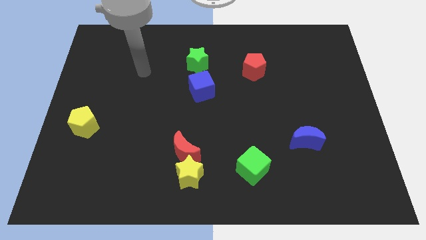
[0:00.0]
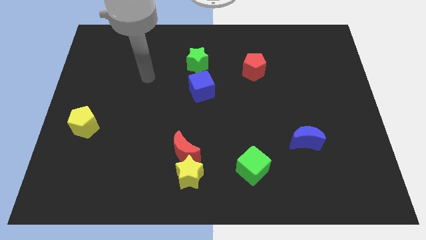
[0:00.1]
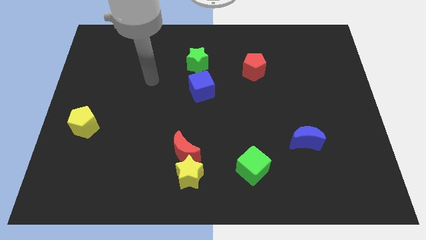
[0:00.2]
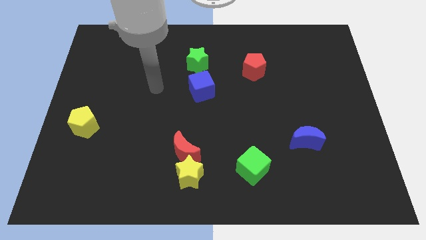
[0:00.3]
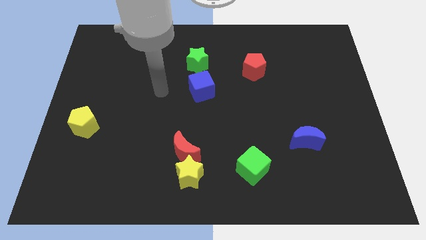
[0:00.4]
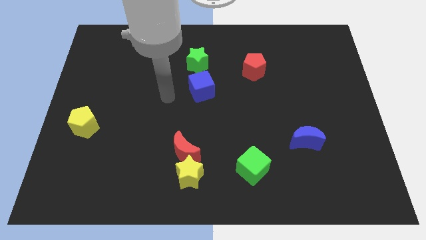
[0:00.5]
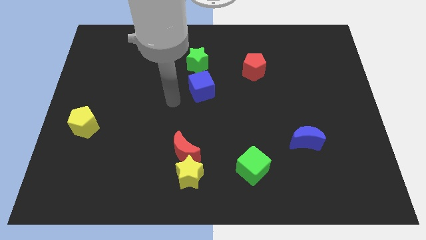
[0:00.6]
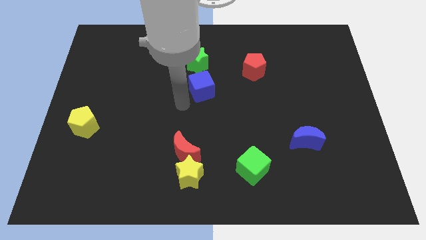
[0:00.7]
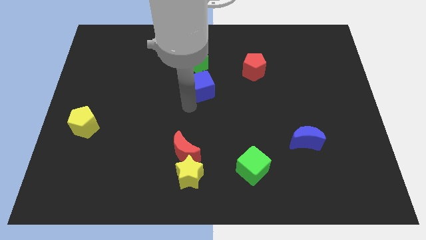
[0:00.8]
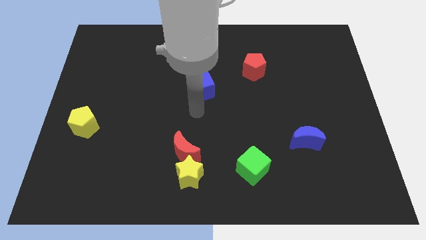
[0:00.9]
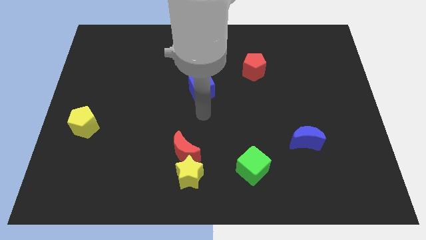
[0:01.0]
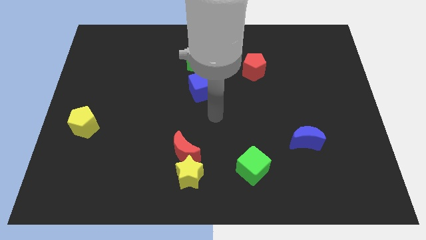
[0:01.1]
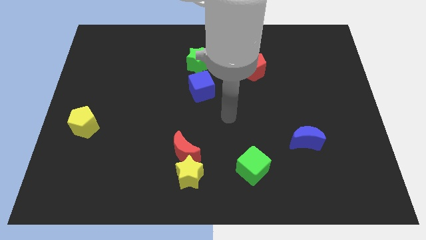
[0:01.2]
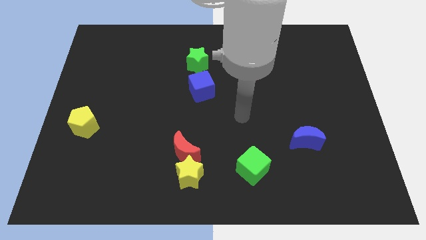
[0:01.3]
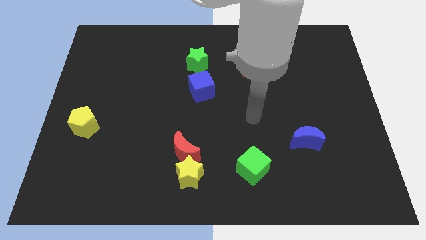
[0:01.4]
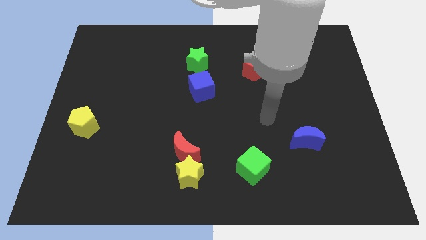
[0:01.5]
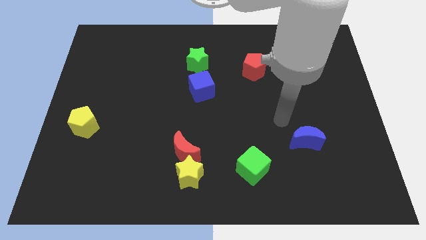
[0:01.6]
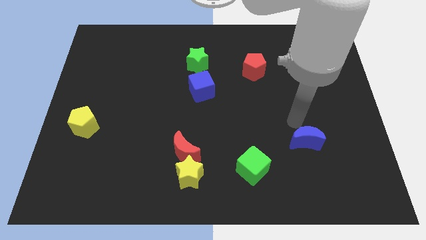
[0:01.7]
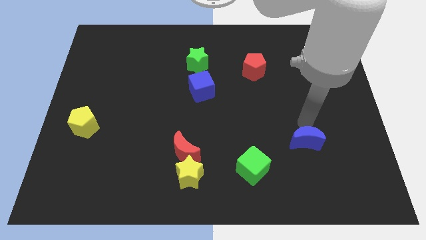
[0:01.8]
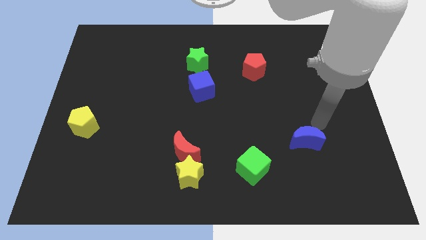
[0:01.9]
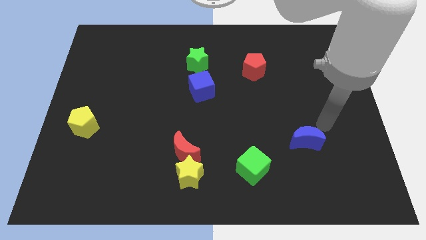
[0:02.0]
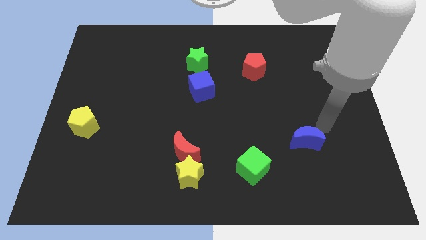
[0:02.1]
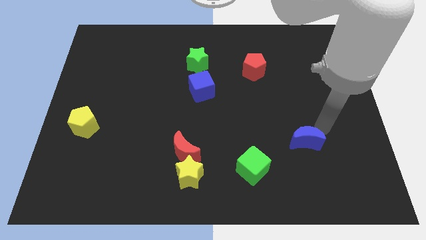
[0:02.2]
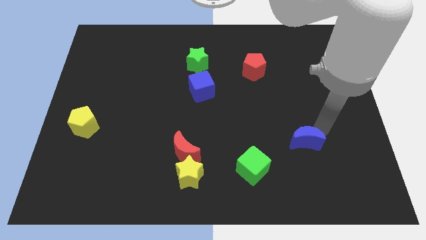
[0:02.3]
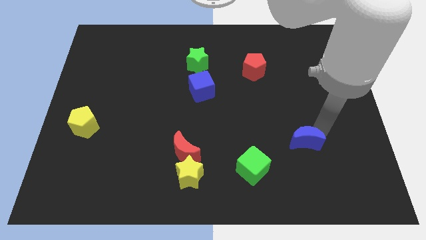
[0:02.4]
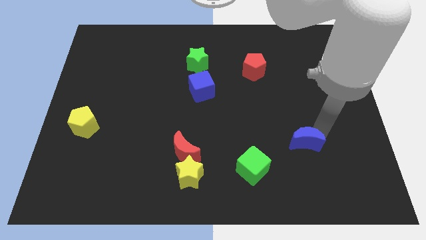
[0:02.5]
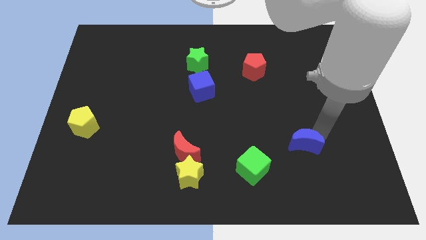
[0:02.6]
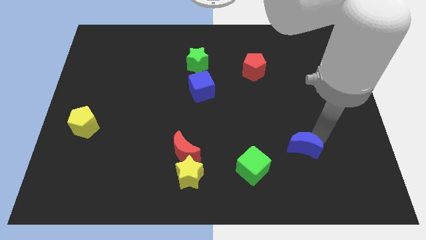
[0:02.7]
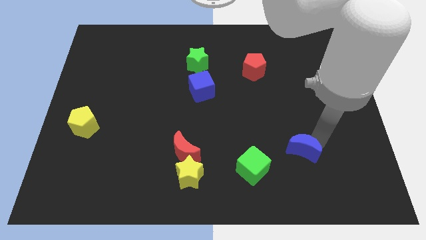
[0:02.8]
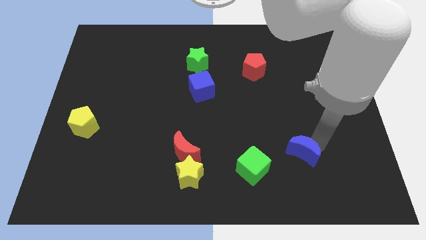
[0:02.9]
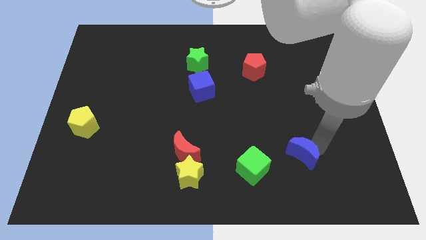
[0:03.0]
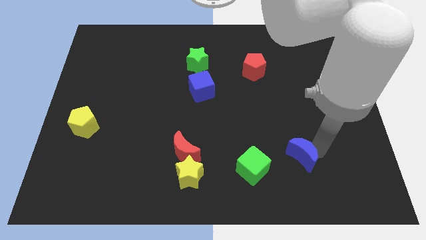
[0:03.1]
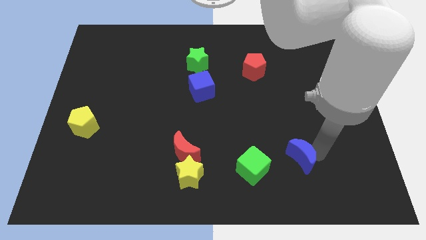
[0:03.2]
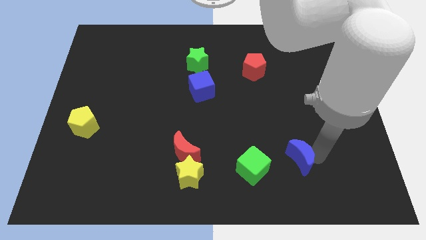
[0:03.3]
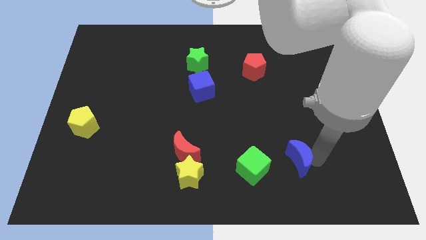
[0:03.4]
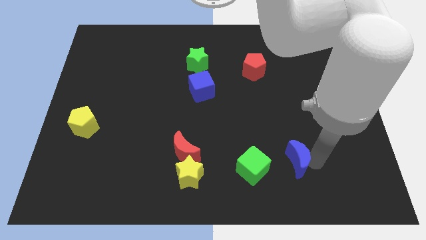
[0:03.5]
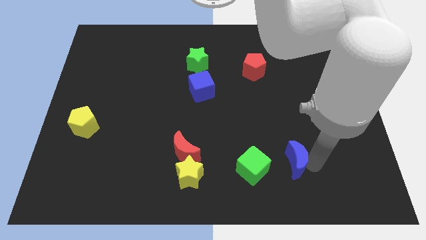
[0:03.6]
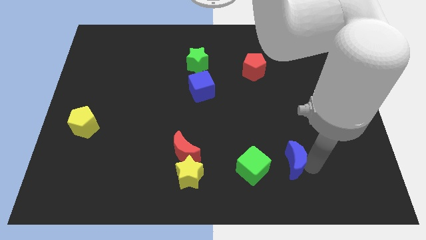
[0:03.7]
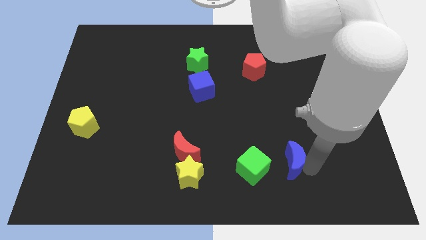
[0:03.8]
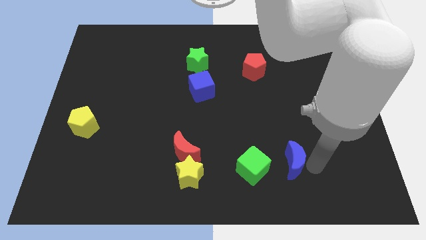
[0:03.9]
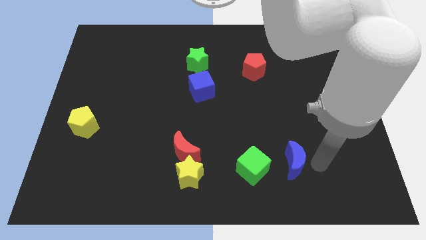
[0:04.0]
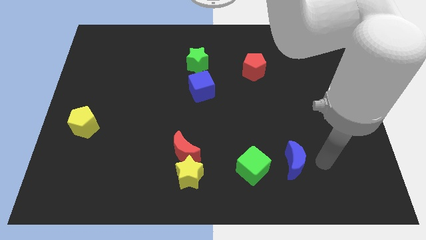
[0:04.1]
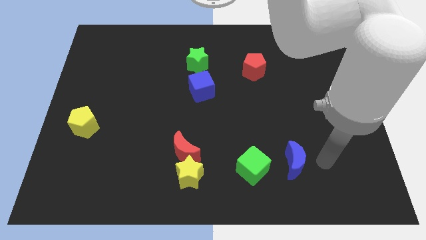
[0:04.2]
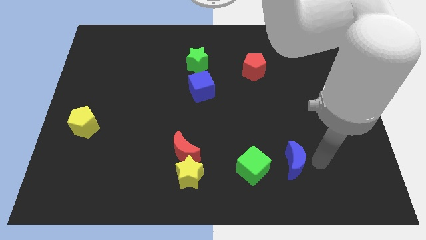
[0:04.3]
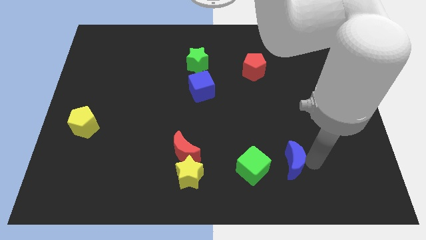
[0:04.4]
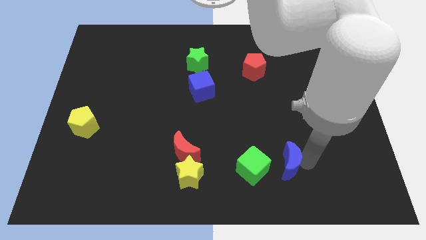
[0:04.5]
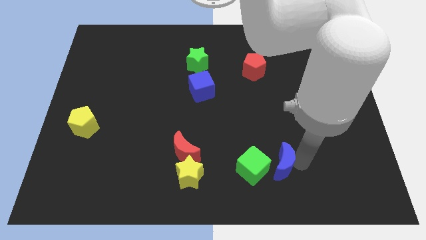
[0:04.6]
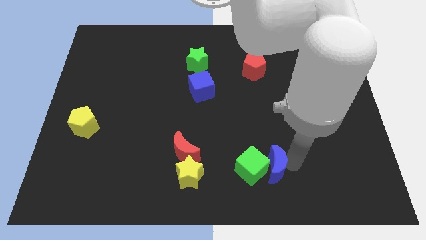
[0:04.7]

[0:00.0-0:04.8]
move the blue moon close to the green cube

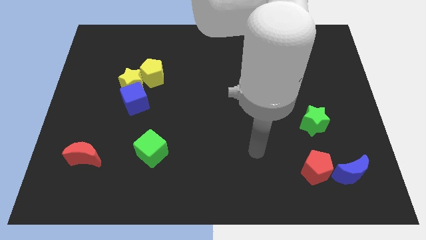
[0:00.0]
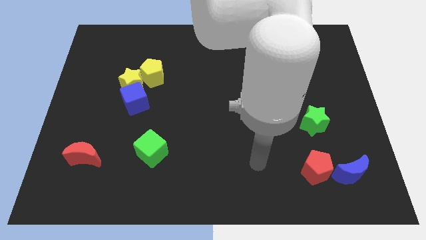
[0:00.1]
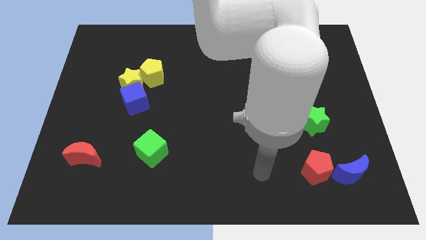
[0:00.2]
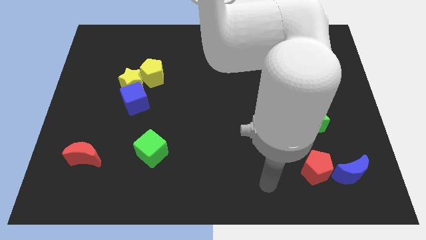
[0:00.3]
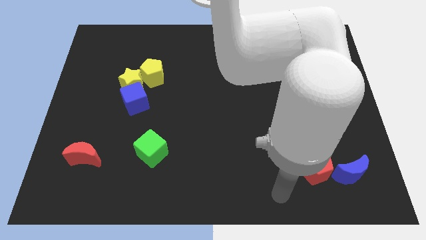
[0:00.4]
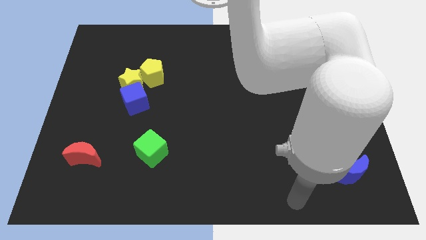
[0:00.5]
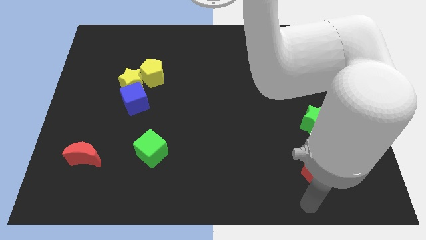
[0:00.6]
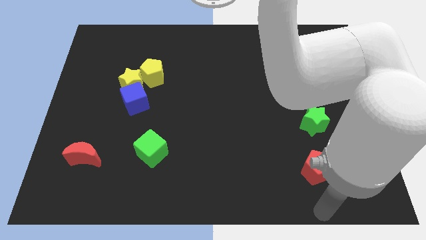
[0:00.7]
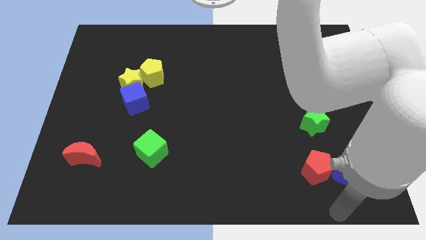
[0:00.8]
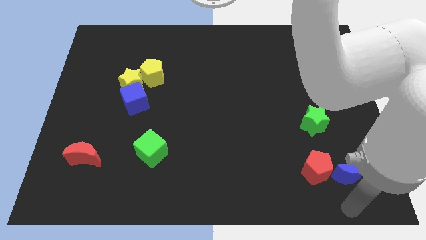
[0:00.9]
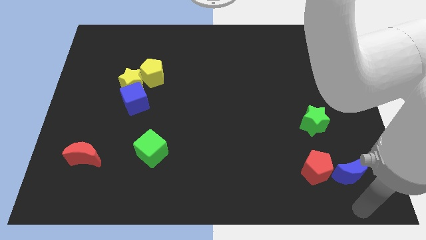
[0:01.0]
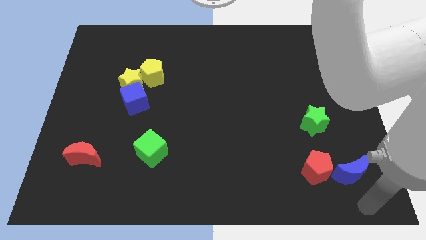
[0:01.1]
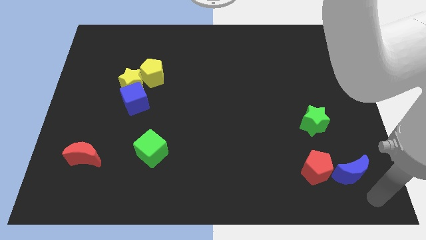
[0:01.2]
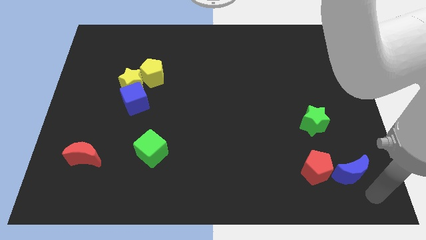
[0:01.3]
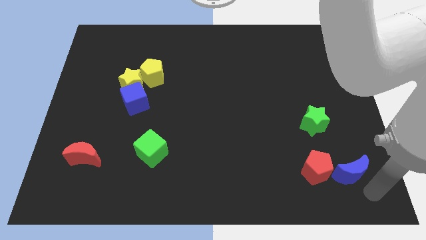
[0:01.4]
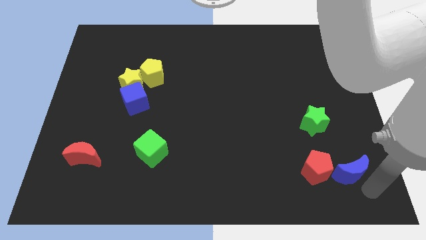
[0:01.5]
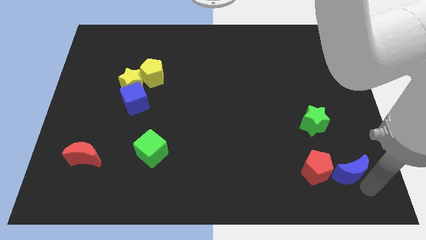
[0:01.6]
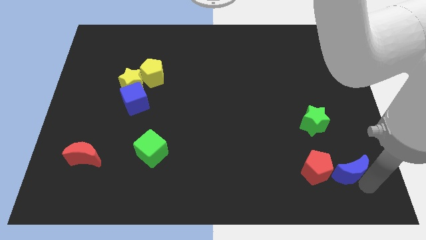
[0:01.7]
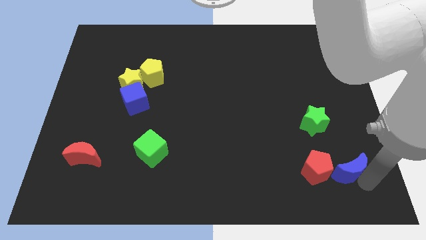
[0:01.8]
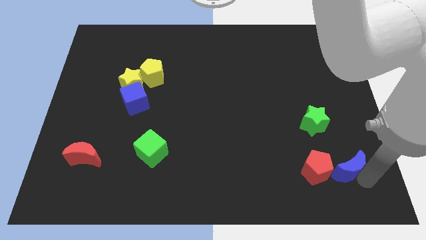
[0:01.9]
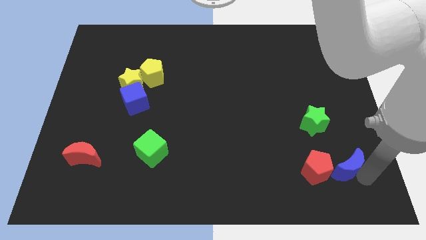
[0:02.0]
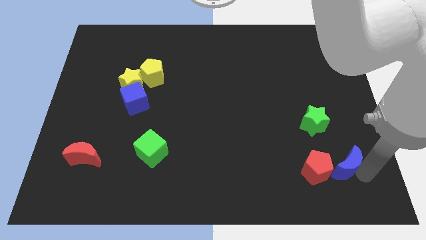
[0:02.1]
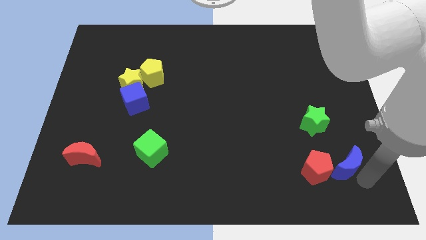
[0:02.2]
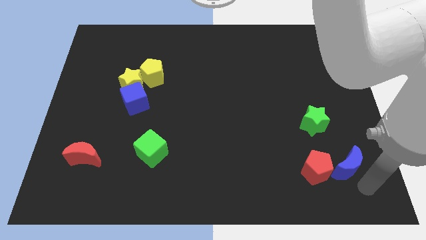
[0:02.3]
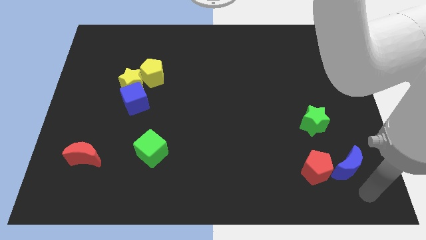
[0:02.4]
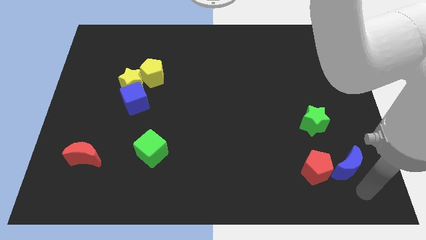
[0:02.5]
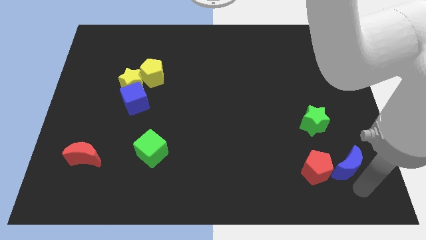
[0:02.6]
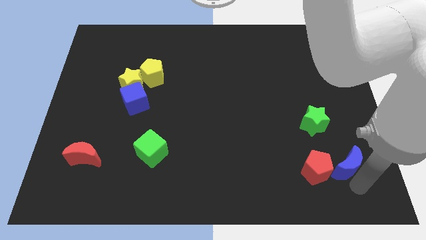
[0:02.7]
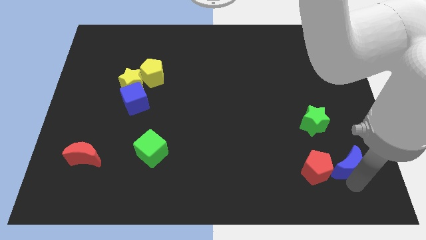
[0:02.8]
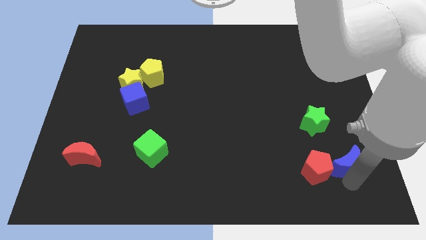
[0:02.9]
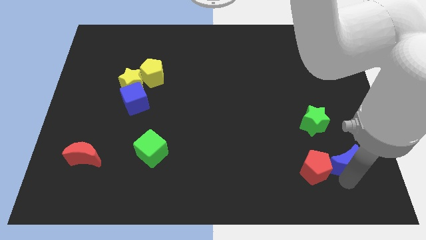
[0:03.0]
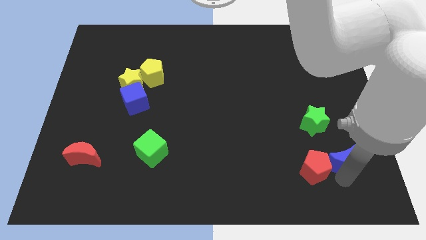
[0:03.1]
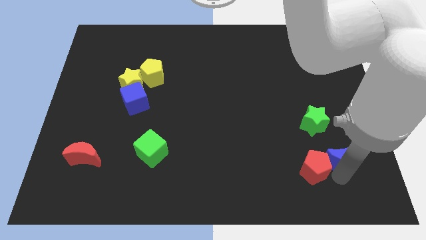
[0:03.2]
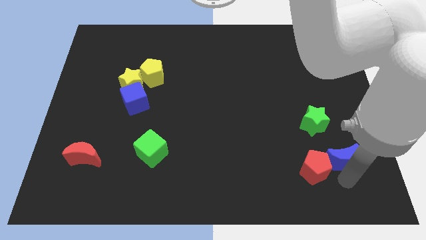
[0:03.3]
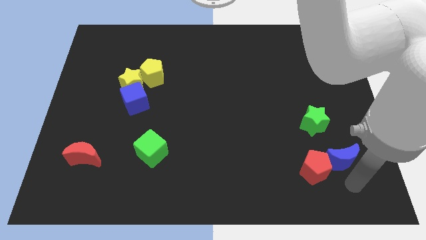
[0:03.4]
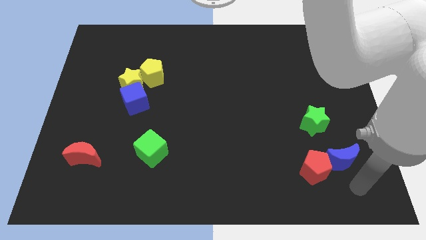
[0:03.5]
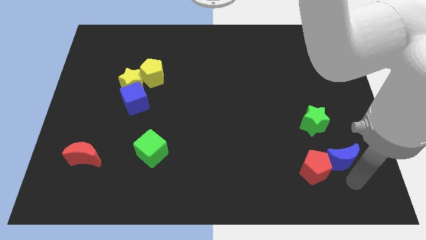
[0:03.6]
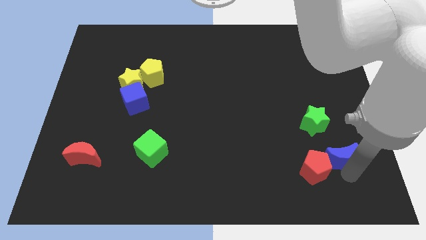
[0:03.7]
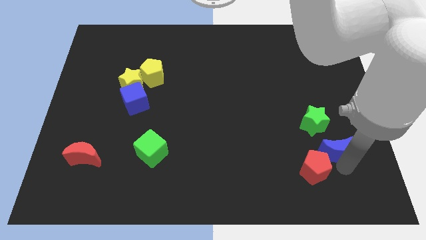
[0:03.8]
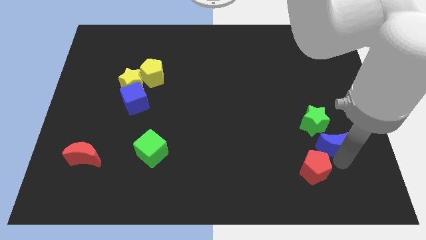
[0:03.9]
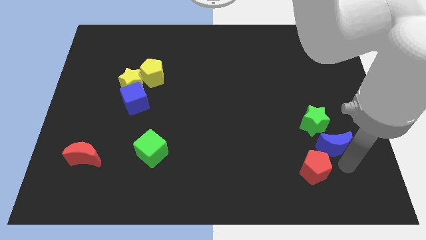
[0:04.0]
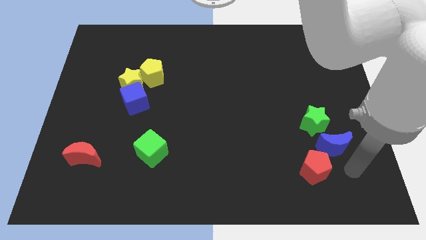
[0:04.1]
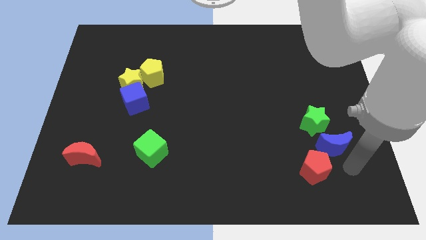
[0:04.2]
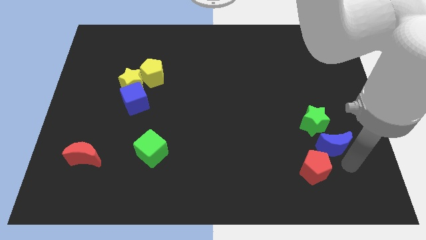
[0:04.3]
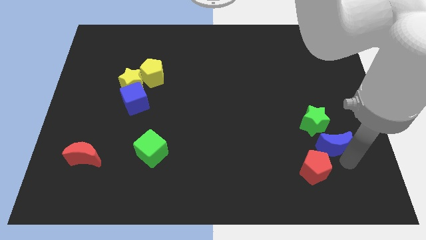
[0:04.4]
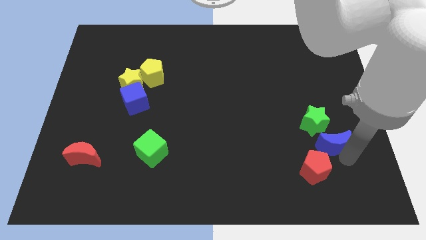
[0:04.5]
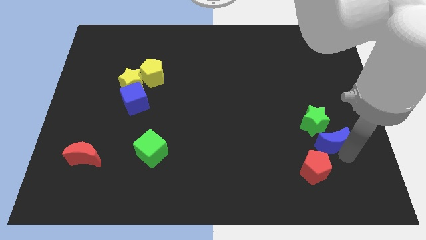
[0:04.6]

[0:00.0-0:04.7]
put the blue moon to the green star
